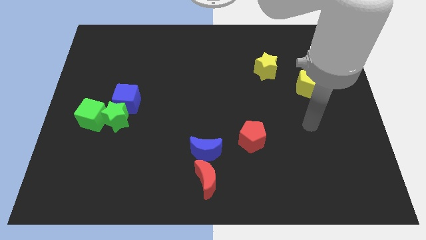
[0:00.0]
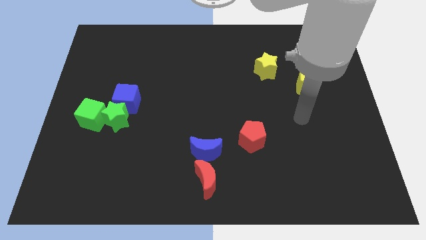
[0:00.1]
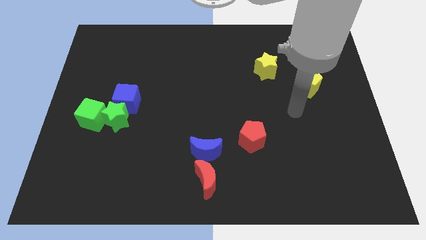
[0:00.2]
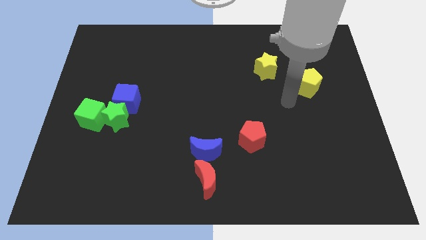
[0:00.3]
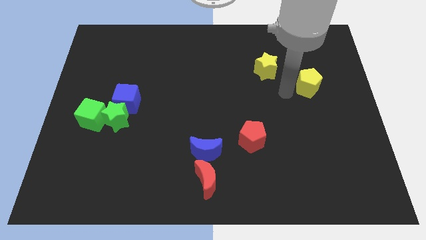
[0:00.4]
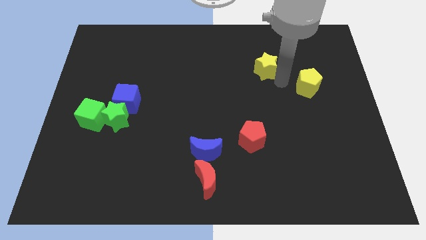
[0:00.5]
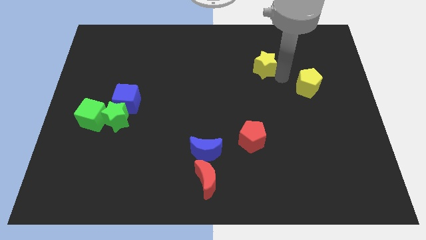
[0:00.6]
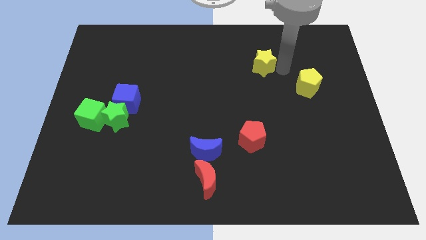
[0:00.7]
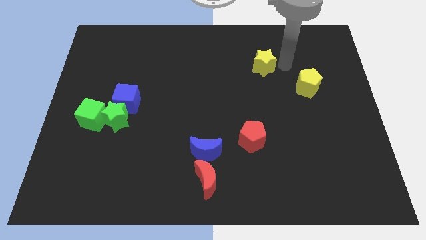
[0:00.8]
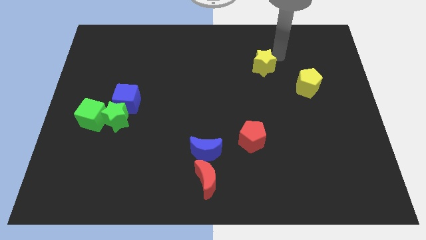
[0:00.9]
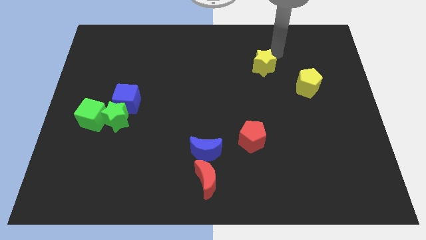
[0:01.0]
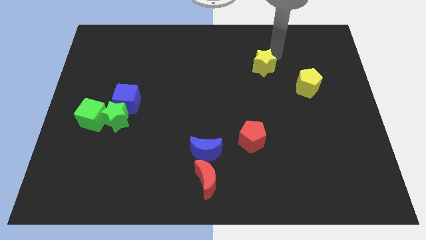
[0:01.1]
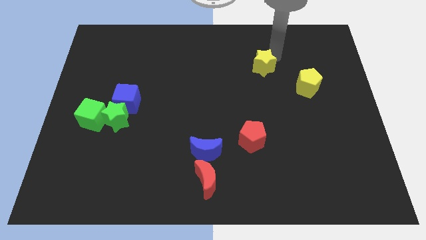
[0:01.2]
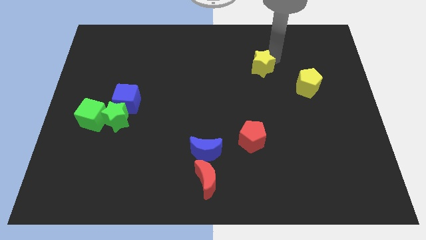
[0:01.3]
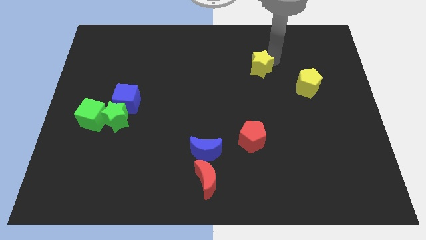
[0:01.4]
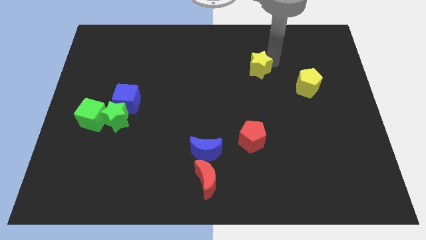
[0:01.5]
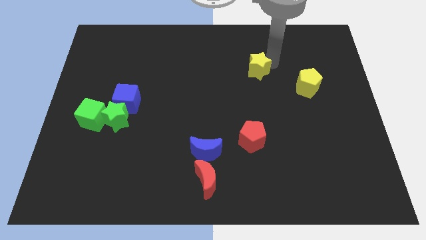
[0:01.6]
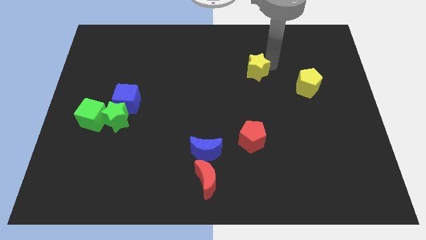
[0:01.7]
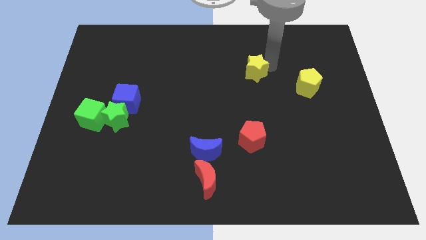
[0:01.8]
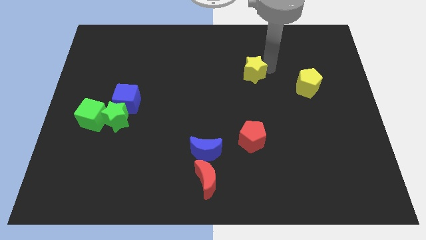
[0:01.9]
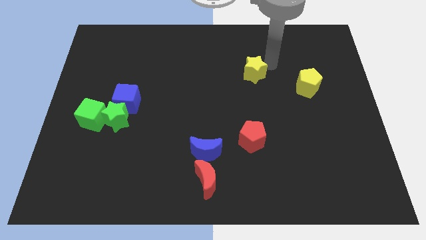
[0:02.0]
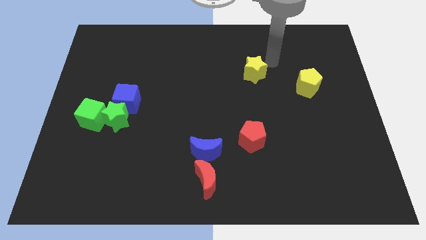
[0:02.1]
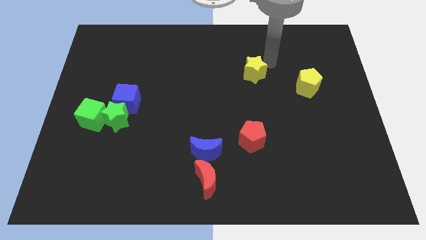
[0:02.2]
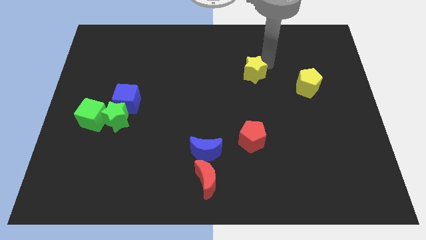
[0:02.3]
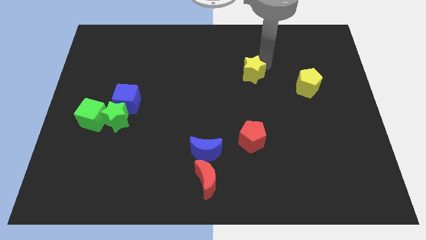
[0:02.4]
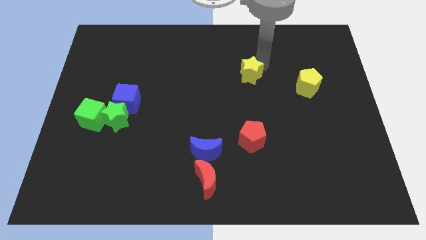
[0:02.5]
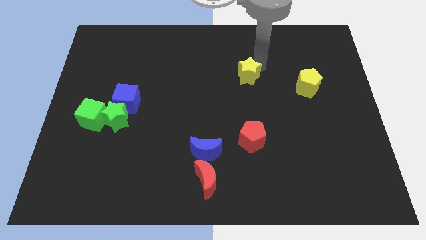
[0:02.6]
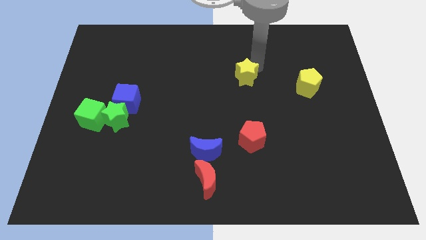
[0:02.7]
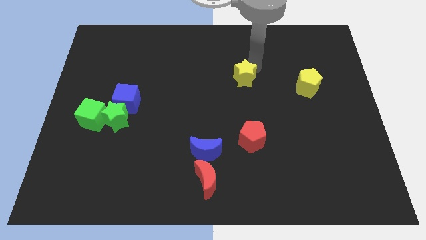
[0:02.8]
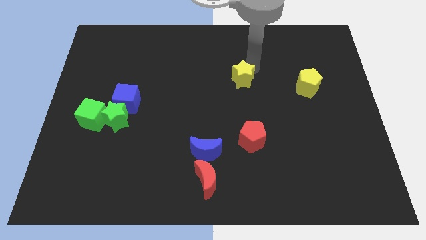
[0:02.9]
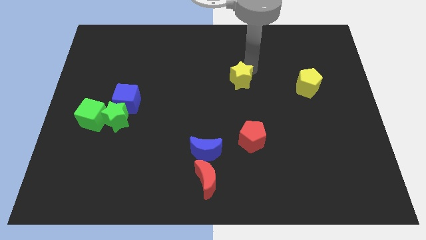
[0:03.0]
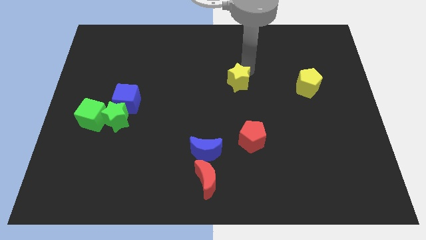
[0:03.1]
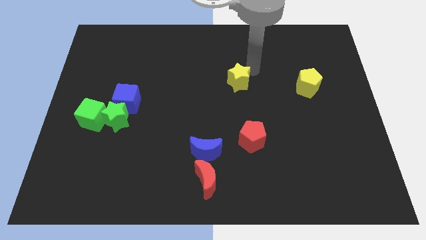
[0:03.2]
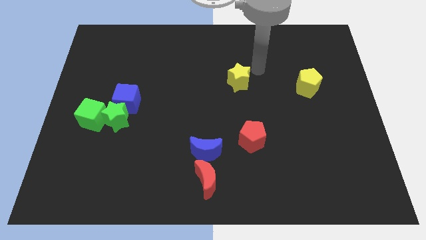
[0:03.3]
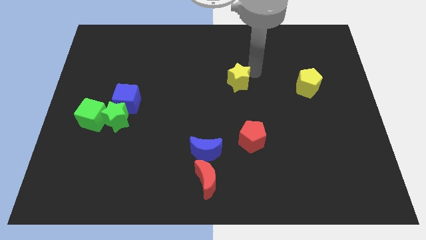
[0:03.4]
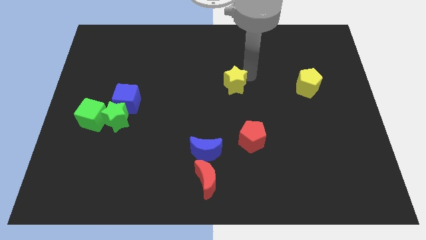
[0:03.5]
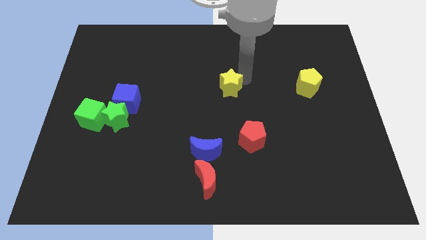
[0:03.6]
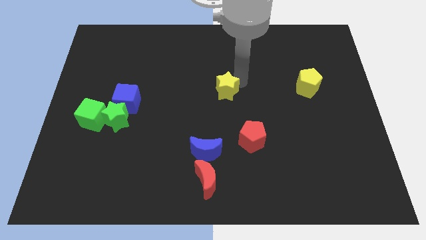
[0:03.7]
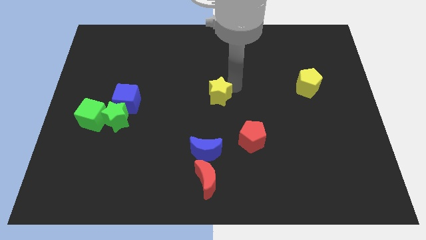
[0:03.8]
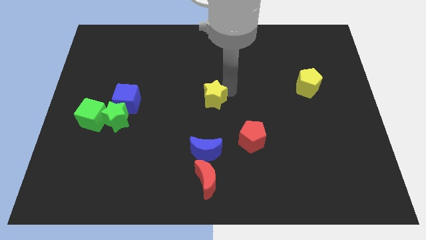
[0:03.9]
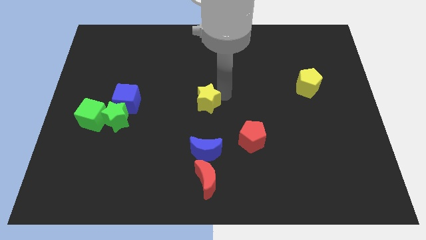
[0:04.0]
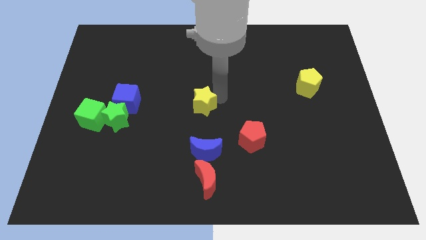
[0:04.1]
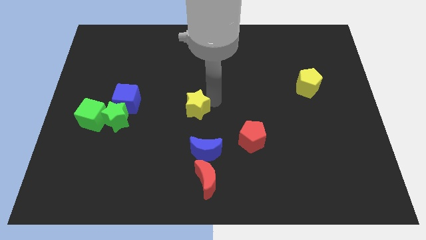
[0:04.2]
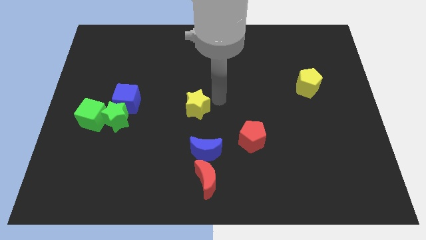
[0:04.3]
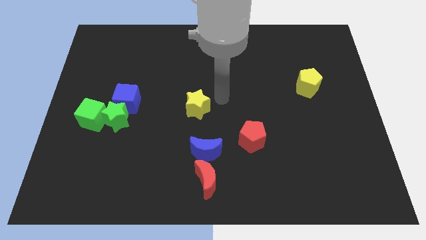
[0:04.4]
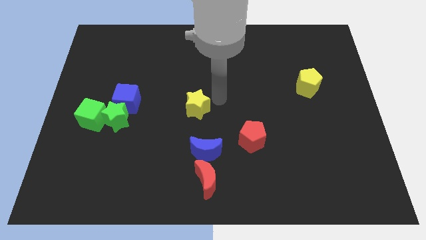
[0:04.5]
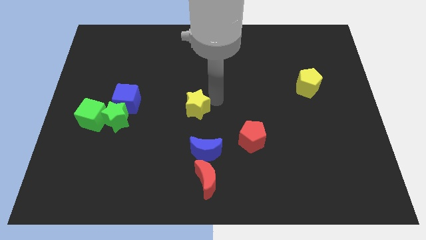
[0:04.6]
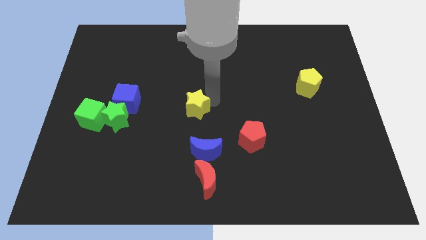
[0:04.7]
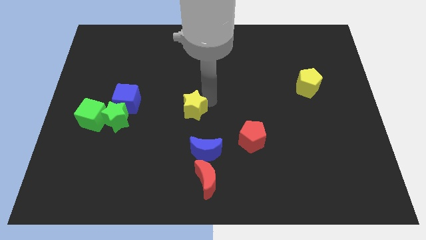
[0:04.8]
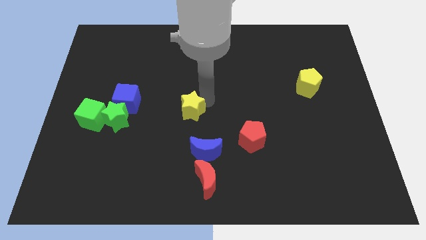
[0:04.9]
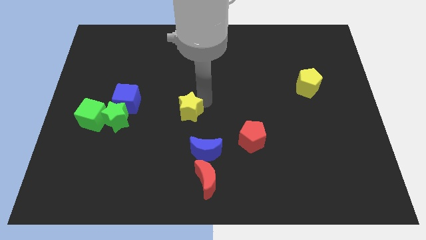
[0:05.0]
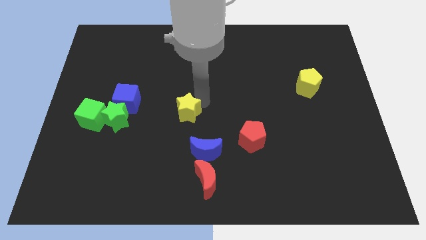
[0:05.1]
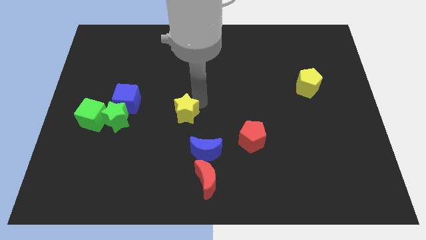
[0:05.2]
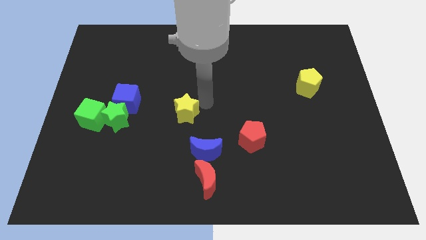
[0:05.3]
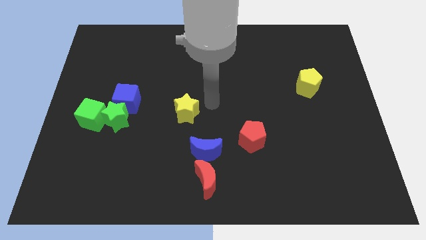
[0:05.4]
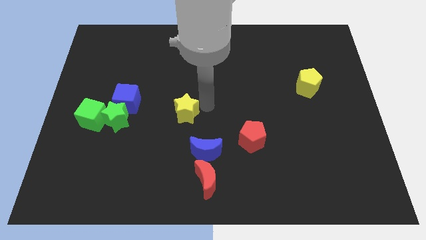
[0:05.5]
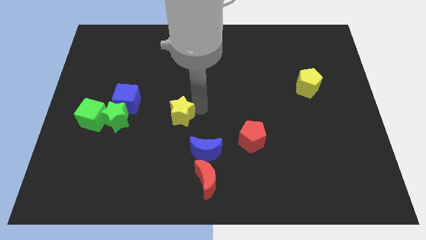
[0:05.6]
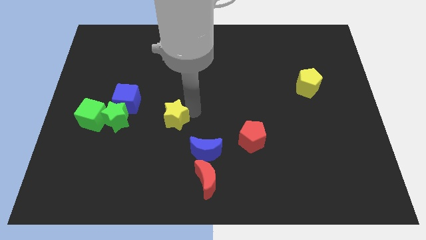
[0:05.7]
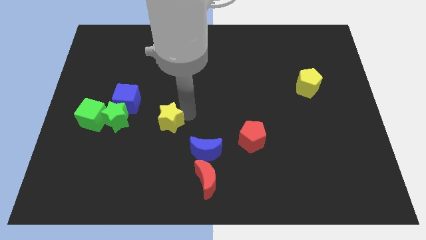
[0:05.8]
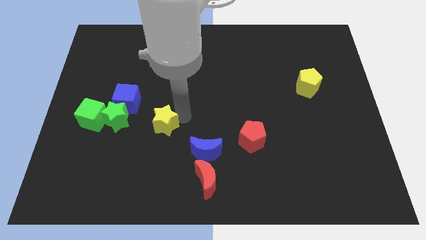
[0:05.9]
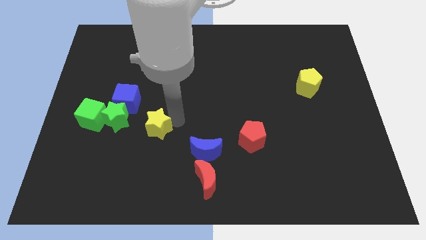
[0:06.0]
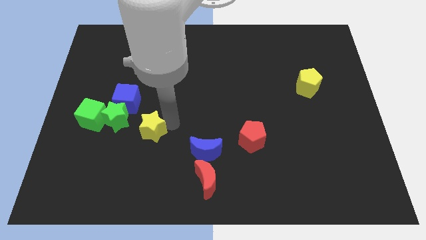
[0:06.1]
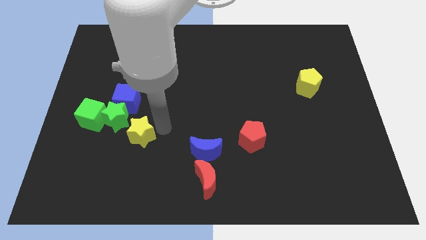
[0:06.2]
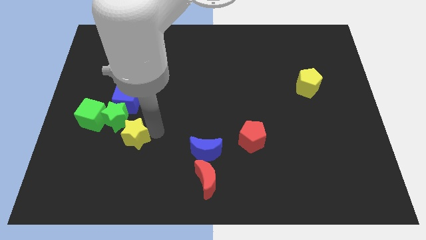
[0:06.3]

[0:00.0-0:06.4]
slide the yellow star to the bottom right side of the green cube

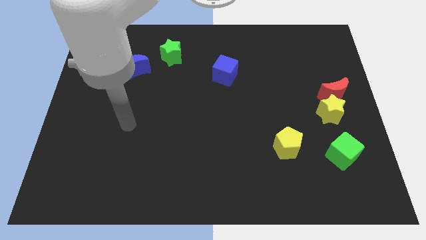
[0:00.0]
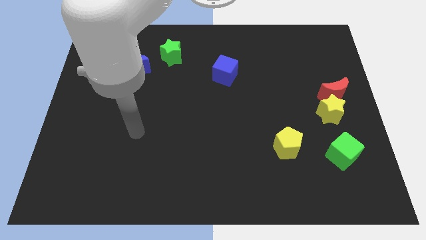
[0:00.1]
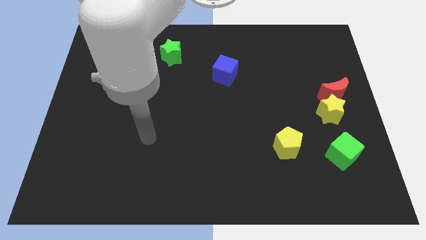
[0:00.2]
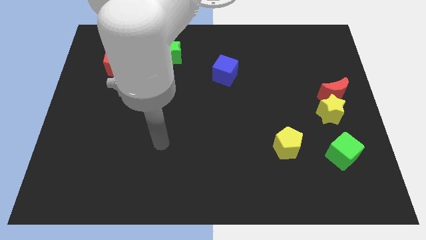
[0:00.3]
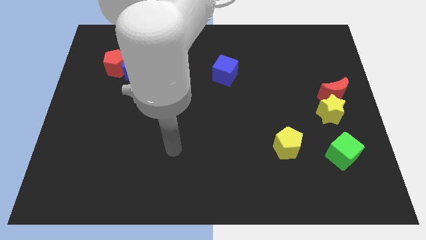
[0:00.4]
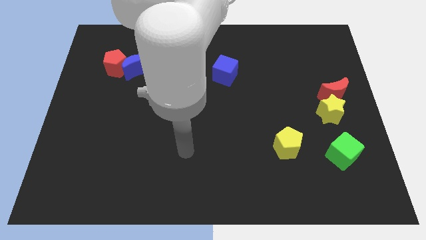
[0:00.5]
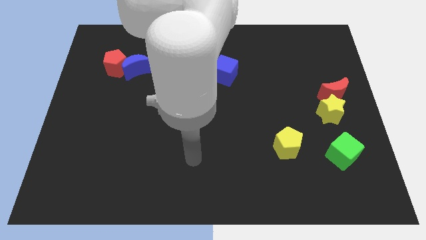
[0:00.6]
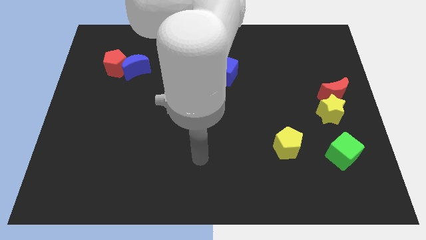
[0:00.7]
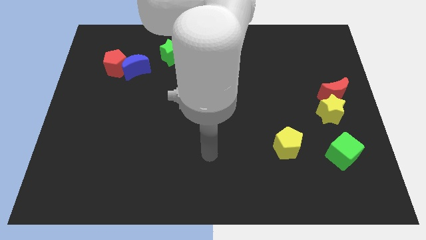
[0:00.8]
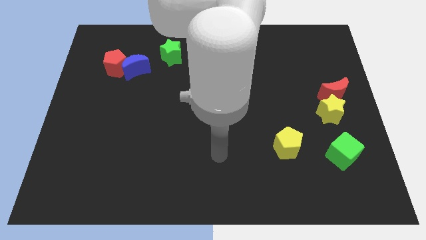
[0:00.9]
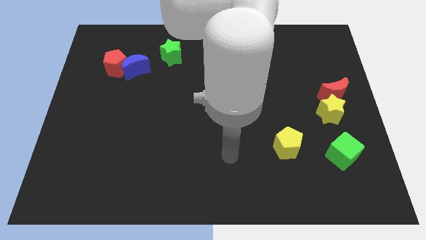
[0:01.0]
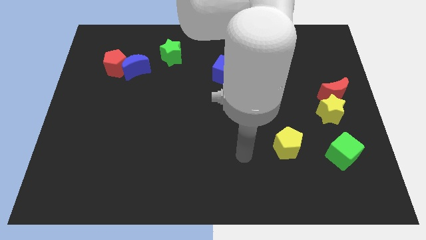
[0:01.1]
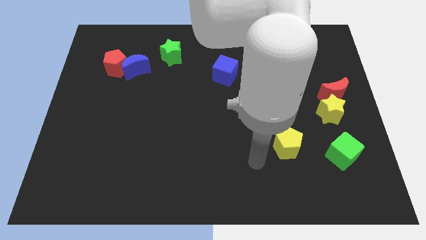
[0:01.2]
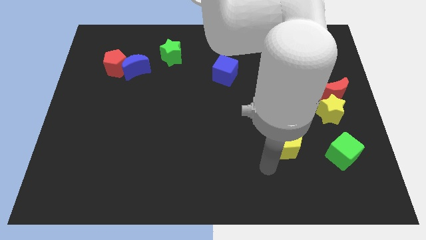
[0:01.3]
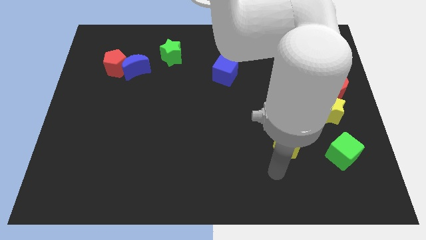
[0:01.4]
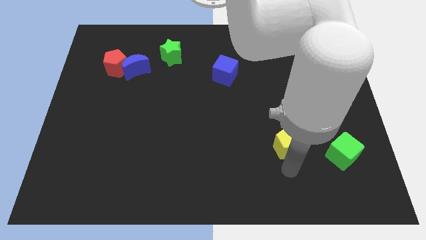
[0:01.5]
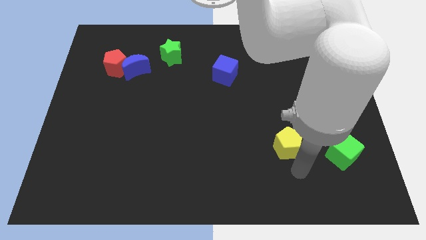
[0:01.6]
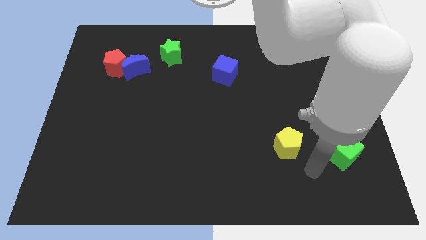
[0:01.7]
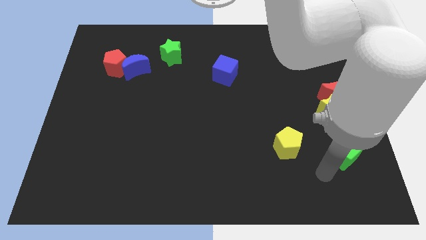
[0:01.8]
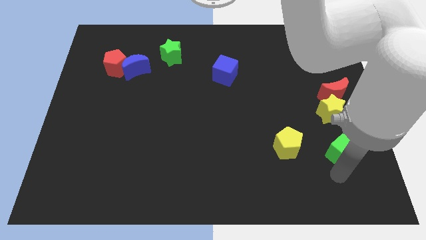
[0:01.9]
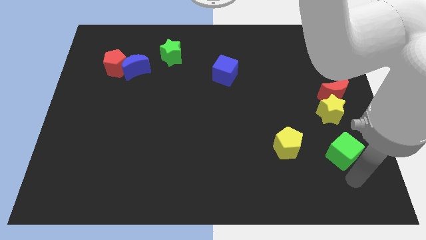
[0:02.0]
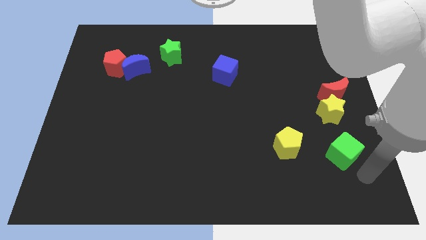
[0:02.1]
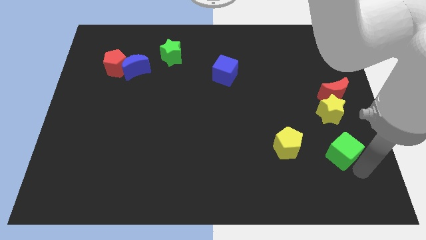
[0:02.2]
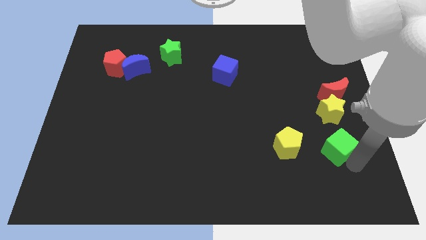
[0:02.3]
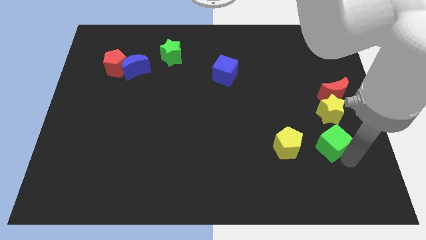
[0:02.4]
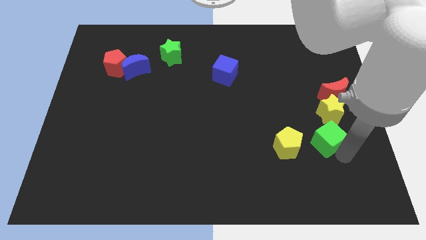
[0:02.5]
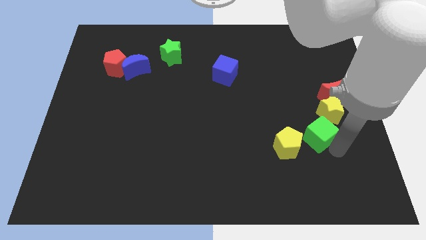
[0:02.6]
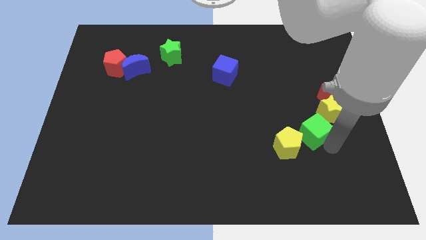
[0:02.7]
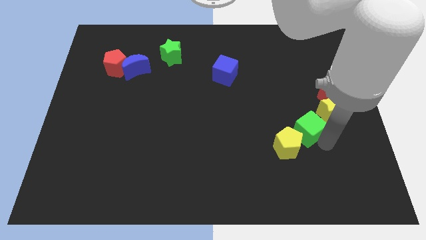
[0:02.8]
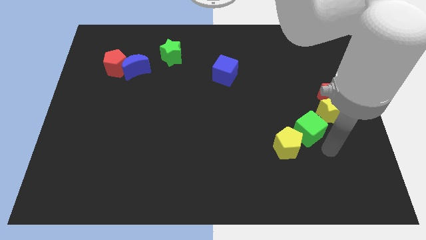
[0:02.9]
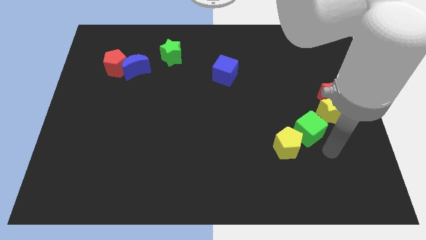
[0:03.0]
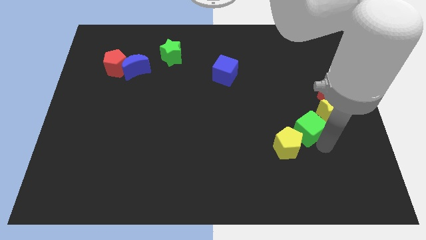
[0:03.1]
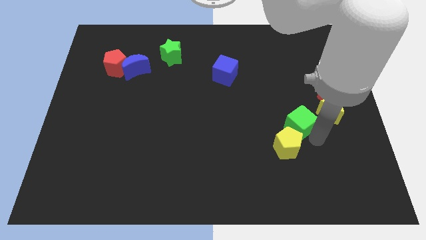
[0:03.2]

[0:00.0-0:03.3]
slide the green cube to the top of the yellow pentagon
